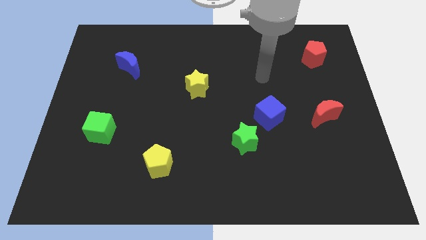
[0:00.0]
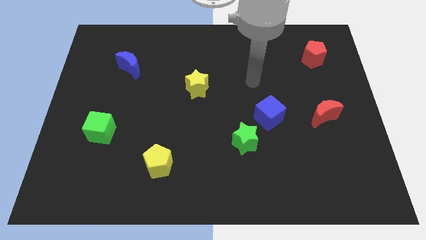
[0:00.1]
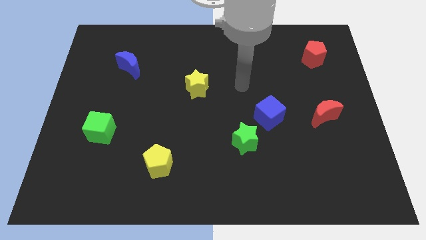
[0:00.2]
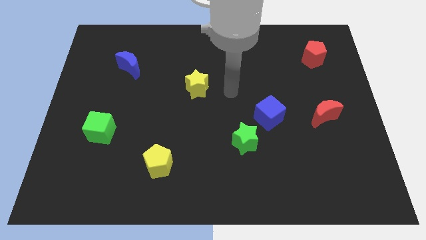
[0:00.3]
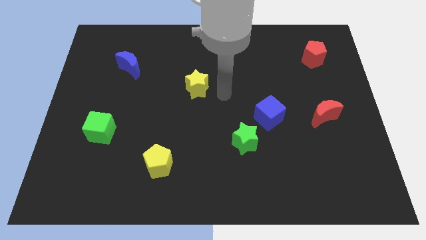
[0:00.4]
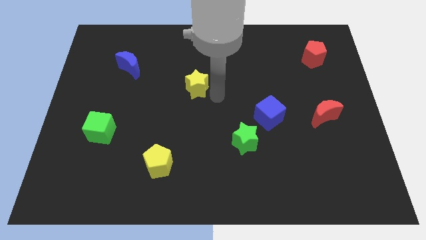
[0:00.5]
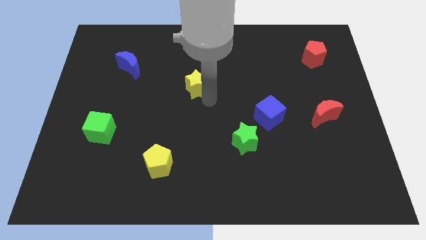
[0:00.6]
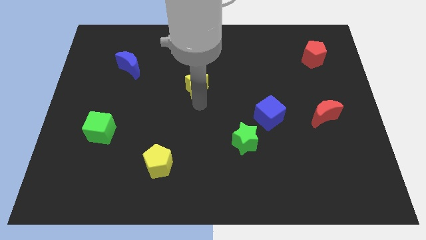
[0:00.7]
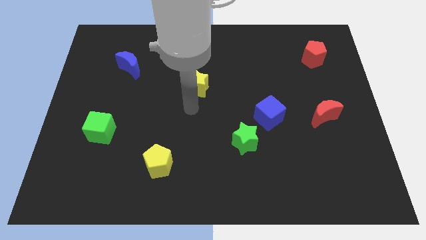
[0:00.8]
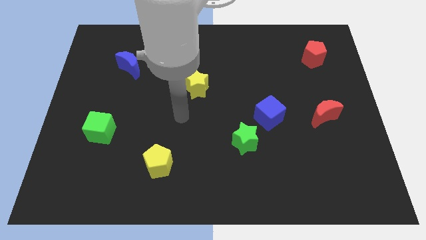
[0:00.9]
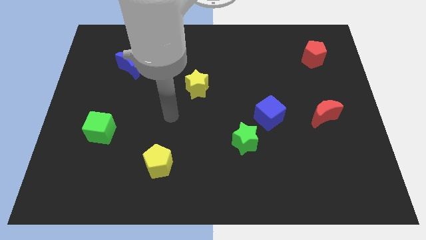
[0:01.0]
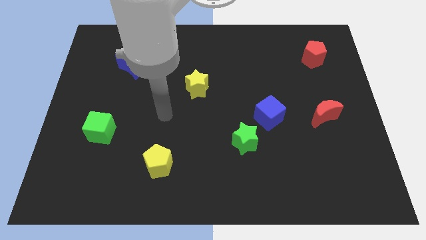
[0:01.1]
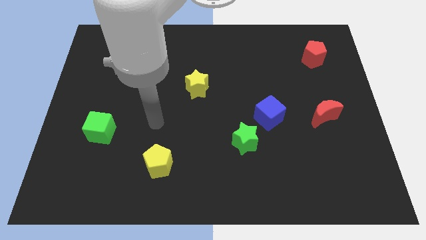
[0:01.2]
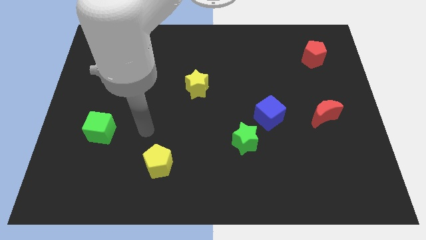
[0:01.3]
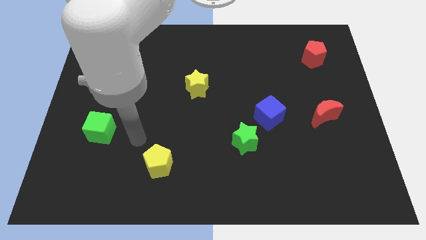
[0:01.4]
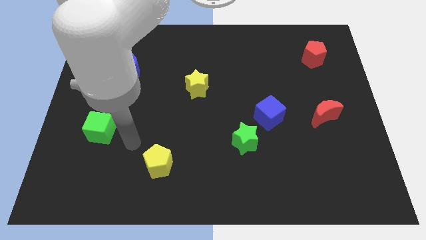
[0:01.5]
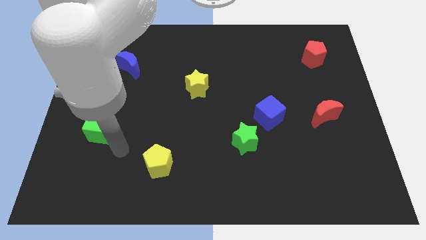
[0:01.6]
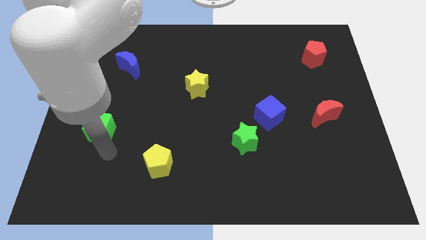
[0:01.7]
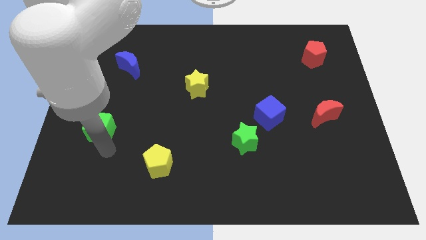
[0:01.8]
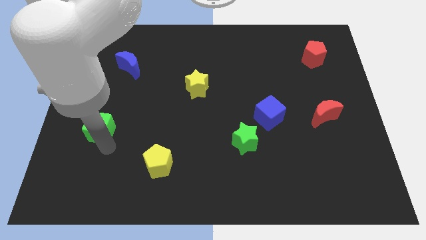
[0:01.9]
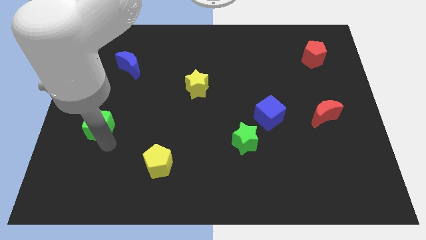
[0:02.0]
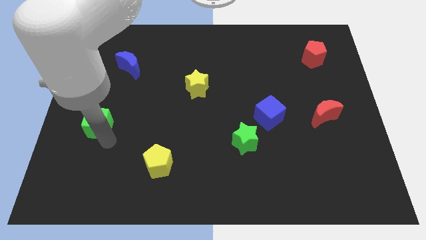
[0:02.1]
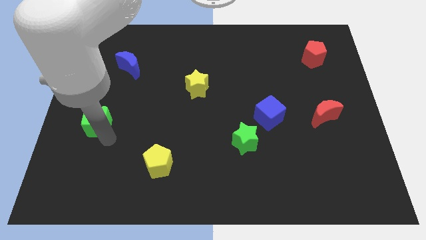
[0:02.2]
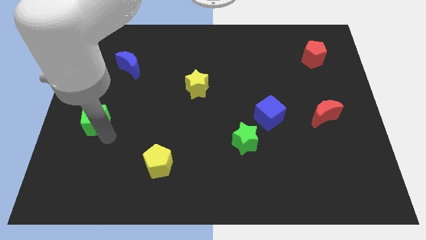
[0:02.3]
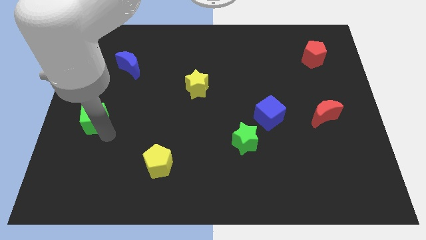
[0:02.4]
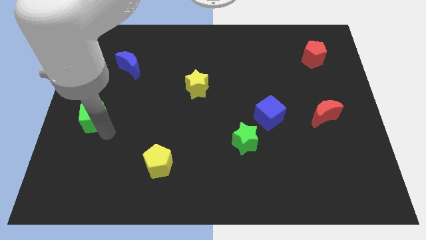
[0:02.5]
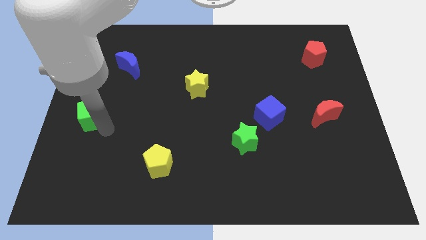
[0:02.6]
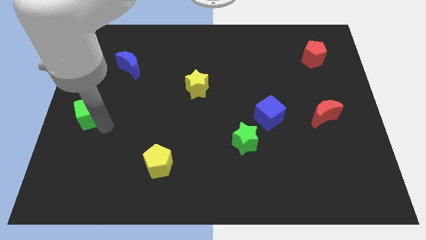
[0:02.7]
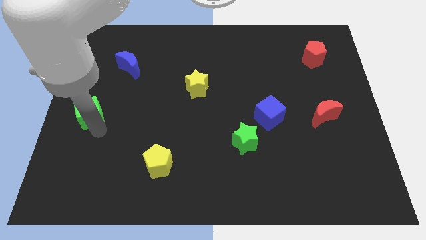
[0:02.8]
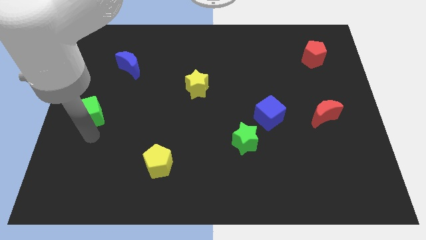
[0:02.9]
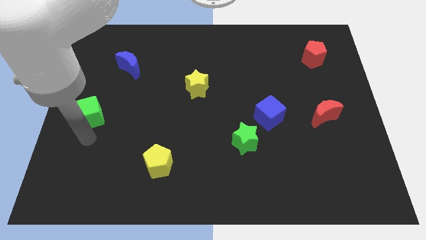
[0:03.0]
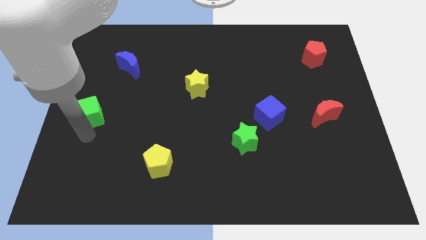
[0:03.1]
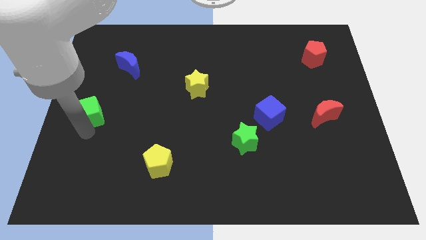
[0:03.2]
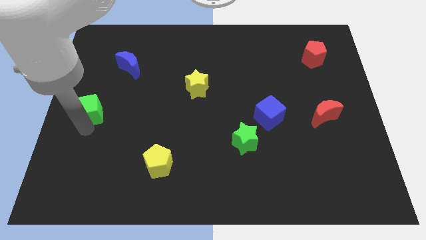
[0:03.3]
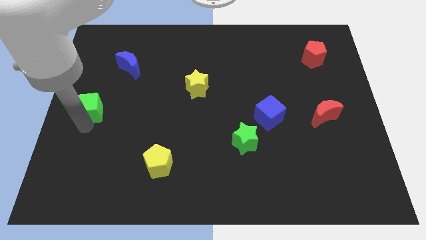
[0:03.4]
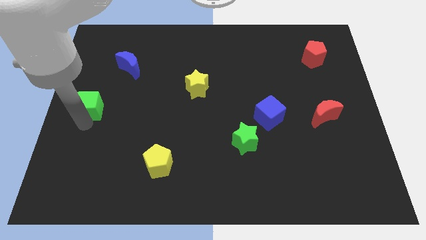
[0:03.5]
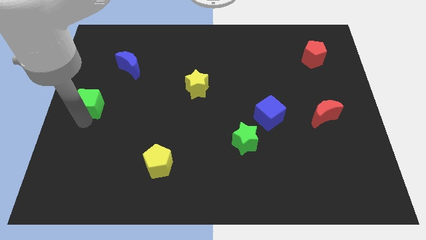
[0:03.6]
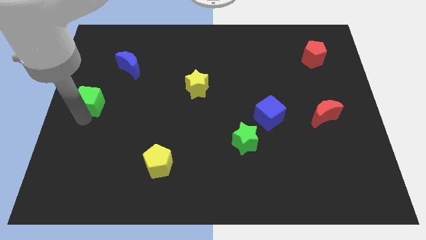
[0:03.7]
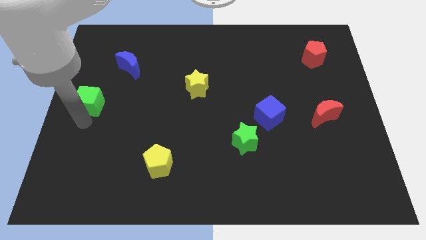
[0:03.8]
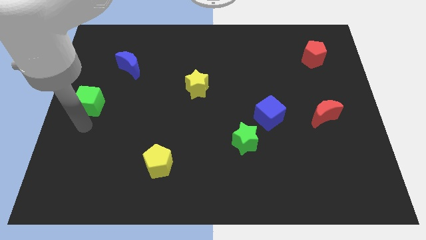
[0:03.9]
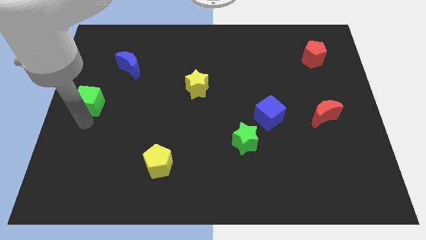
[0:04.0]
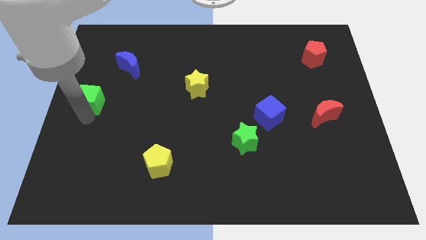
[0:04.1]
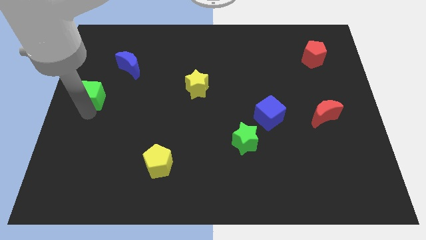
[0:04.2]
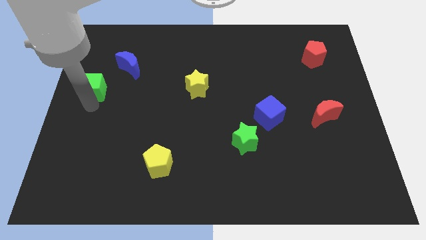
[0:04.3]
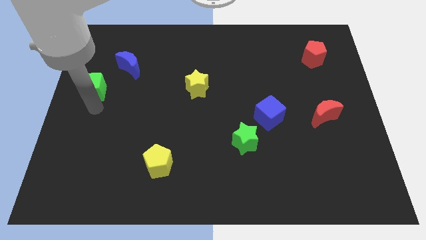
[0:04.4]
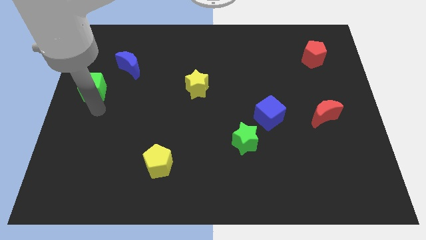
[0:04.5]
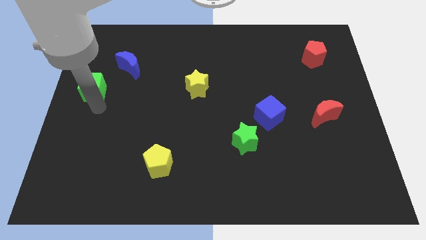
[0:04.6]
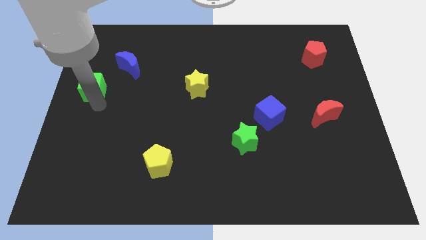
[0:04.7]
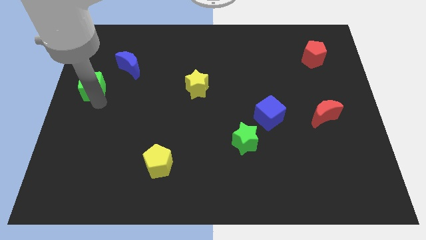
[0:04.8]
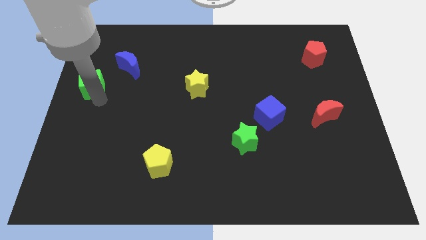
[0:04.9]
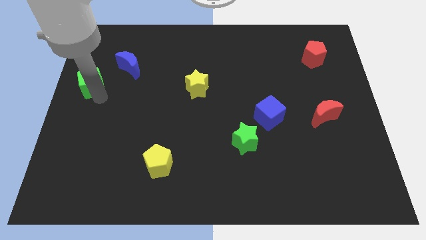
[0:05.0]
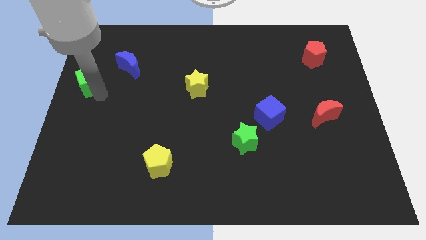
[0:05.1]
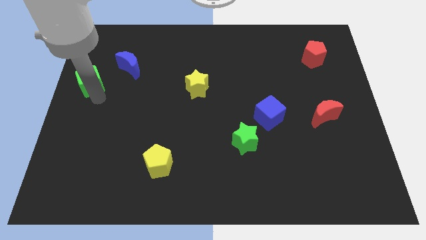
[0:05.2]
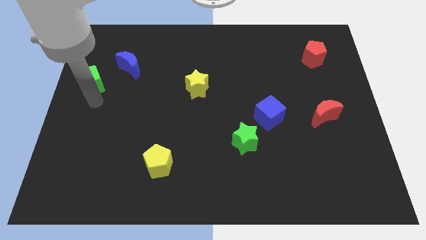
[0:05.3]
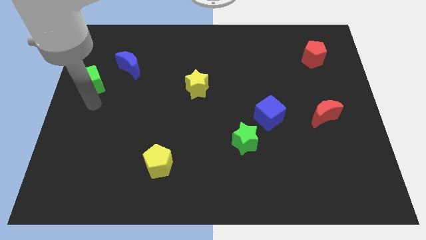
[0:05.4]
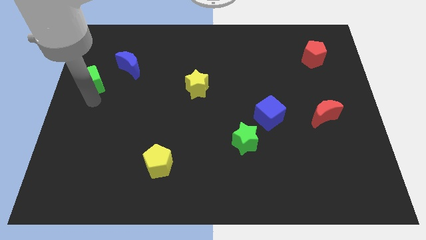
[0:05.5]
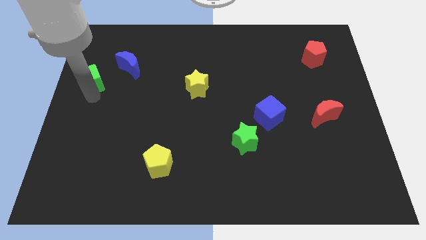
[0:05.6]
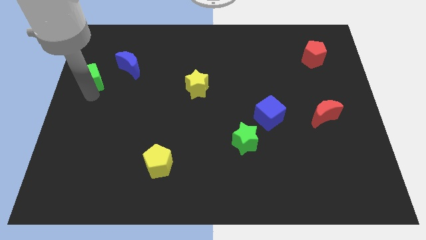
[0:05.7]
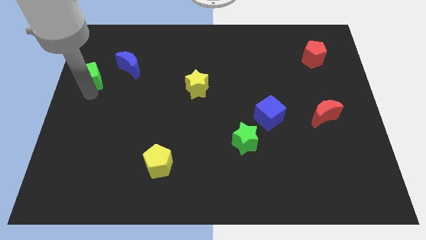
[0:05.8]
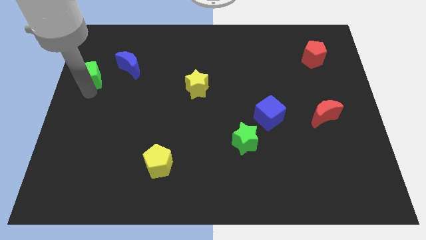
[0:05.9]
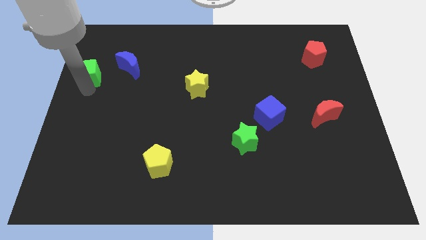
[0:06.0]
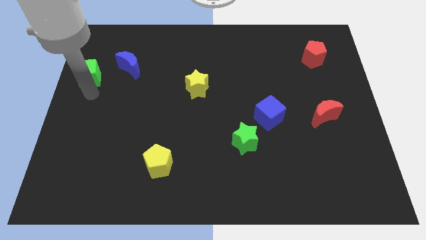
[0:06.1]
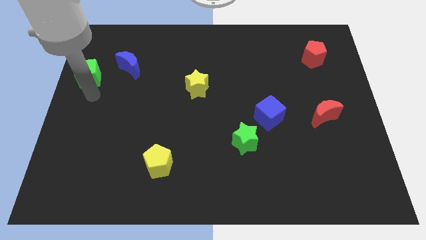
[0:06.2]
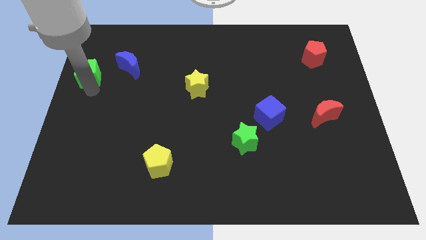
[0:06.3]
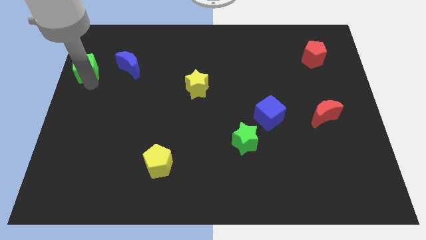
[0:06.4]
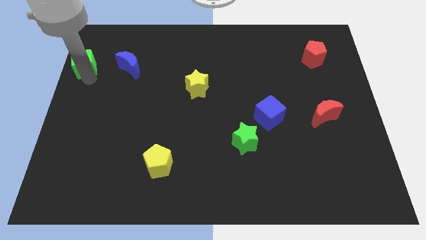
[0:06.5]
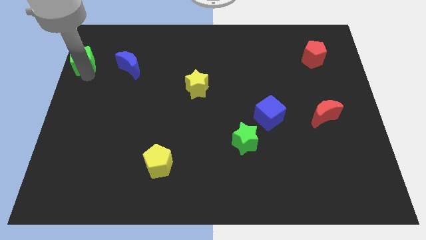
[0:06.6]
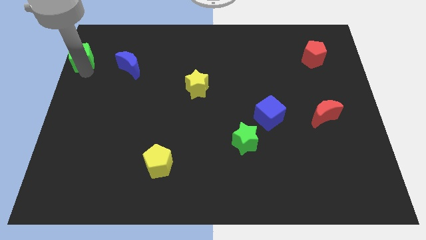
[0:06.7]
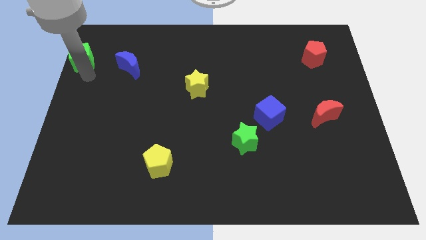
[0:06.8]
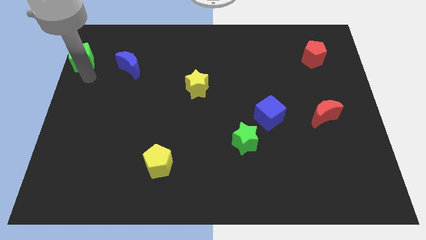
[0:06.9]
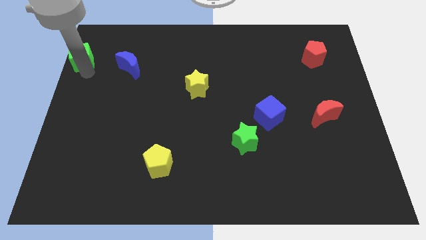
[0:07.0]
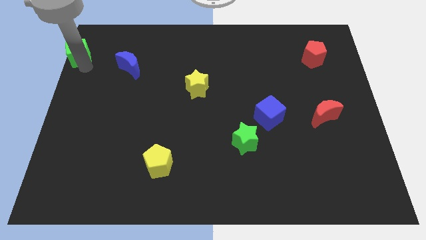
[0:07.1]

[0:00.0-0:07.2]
push the green cube to the top left corner

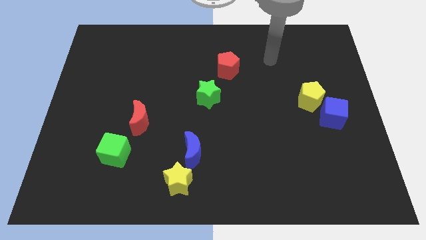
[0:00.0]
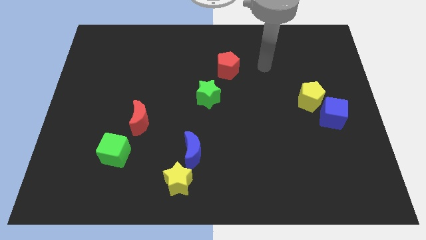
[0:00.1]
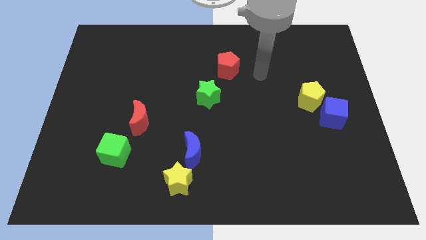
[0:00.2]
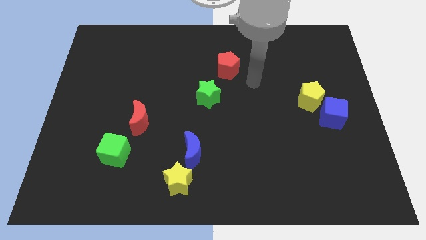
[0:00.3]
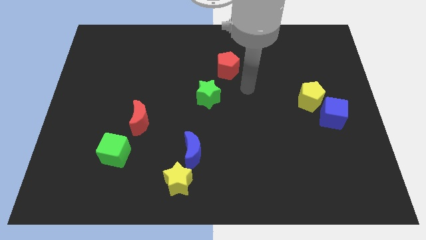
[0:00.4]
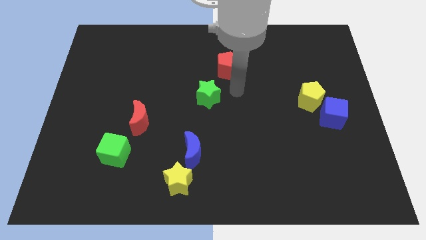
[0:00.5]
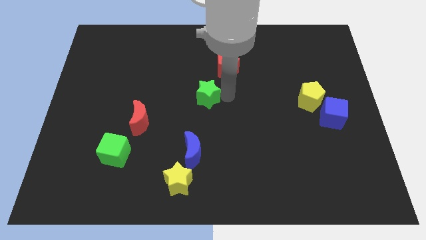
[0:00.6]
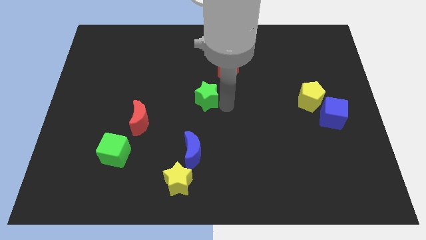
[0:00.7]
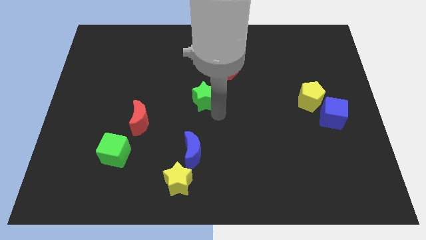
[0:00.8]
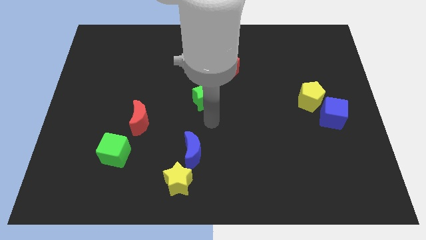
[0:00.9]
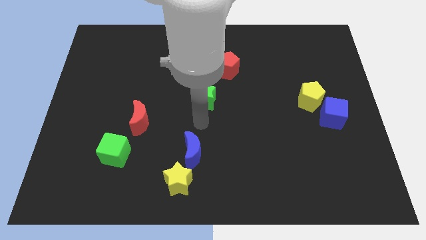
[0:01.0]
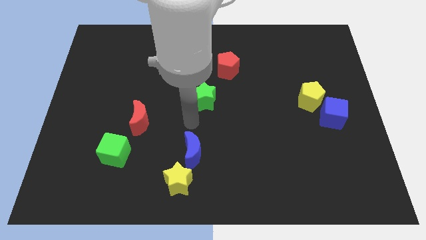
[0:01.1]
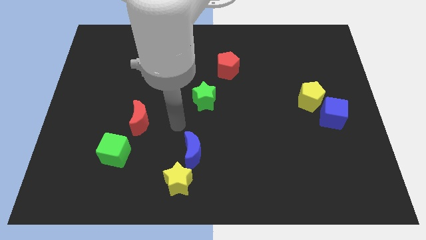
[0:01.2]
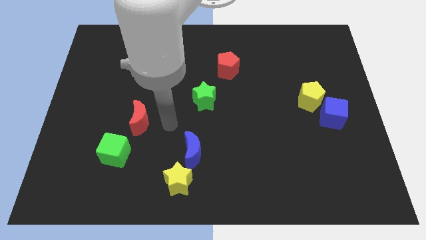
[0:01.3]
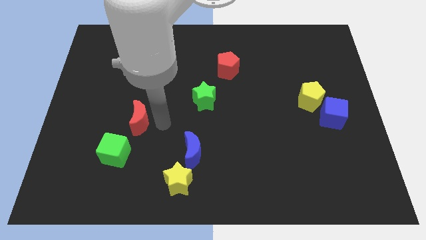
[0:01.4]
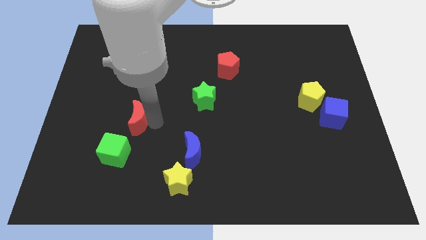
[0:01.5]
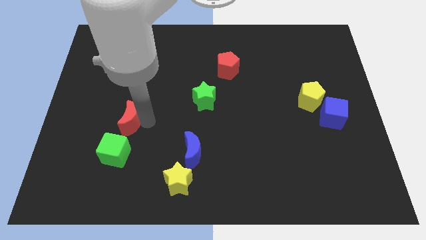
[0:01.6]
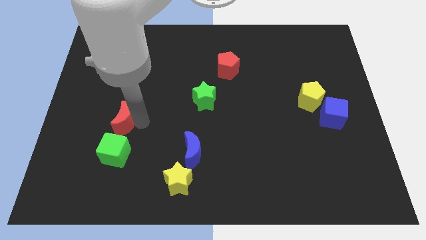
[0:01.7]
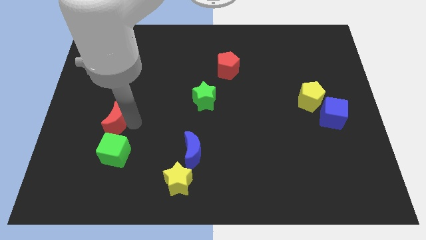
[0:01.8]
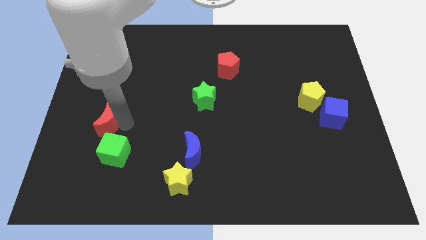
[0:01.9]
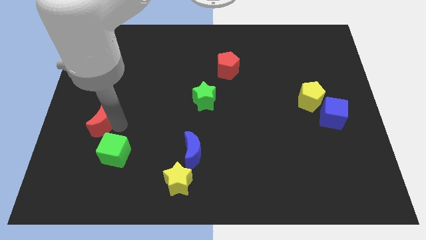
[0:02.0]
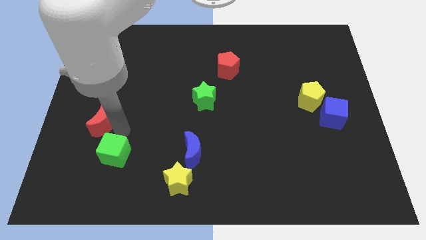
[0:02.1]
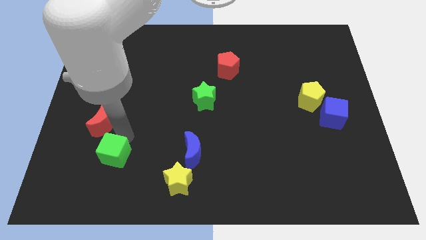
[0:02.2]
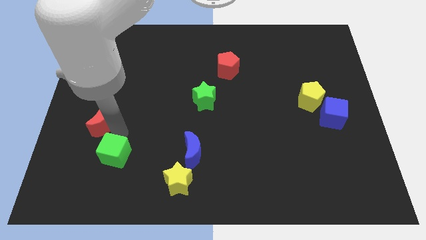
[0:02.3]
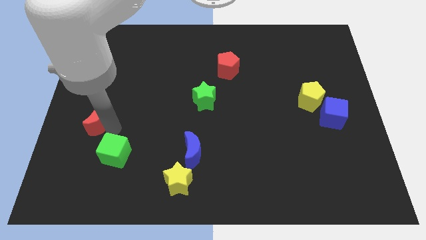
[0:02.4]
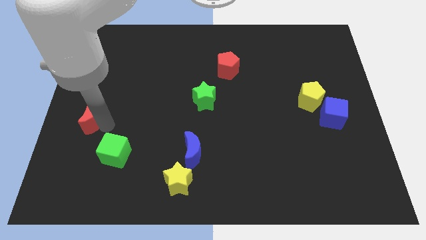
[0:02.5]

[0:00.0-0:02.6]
push the red moon to the left side of the board
